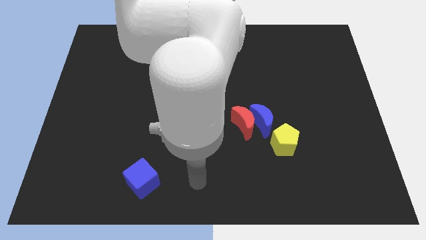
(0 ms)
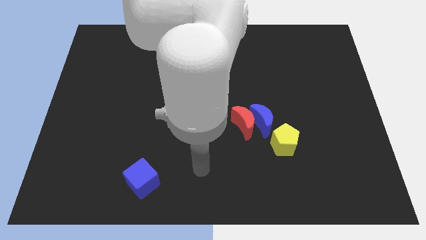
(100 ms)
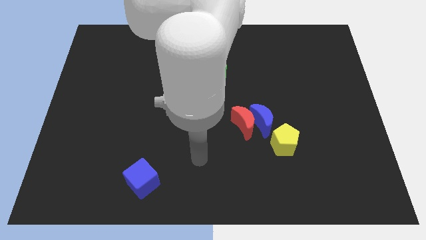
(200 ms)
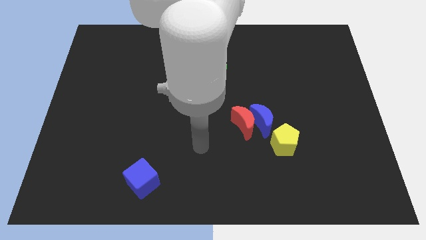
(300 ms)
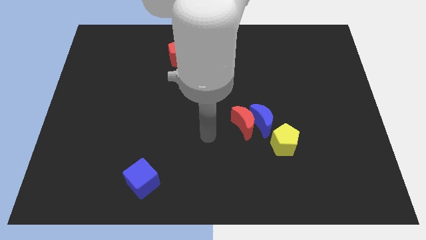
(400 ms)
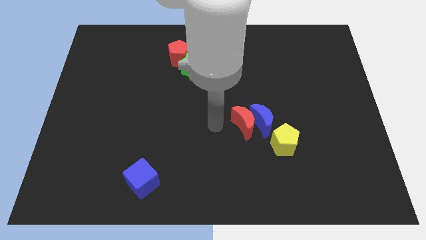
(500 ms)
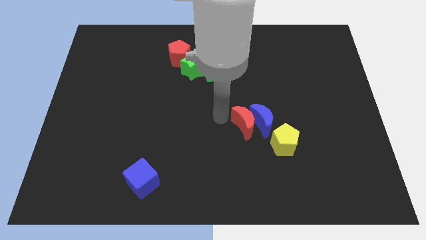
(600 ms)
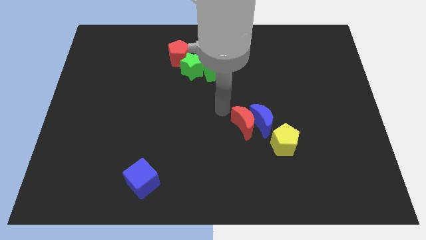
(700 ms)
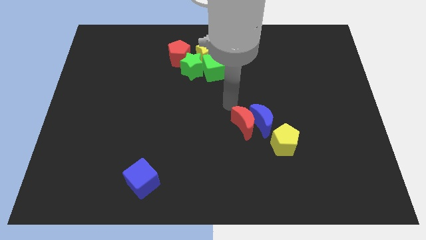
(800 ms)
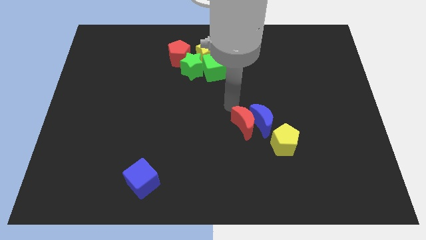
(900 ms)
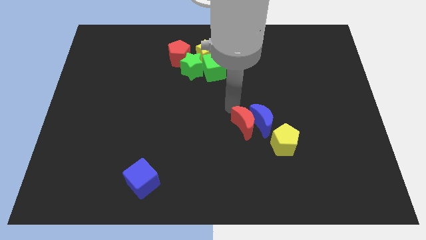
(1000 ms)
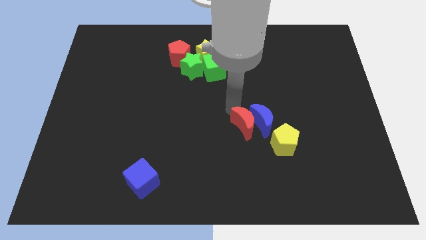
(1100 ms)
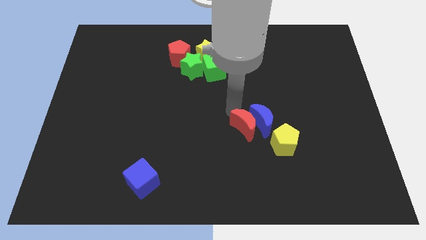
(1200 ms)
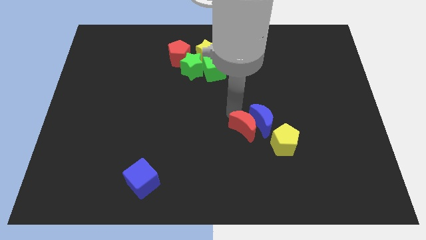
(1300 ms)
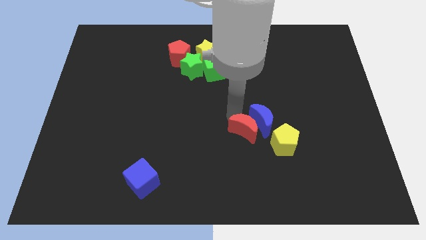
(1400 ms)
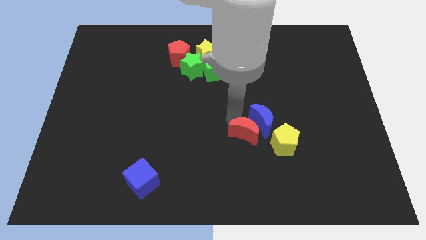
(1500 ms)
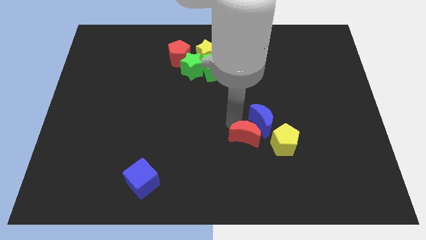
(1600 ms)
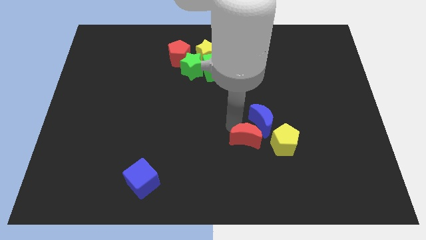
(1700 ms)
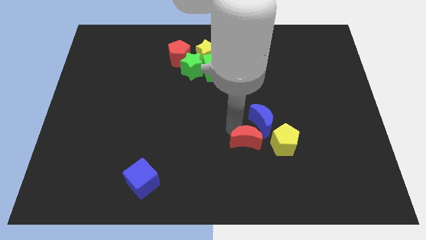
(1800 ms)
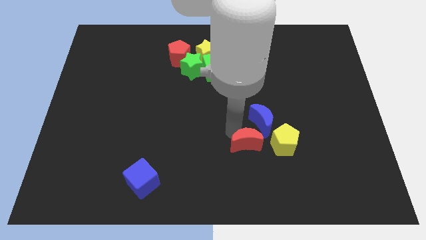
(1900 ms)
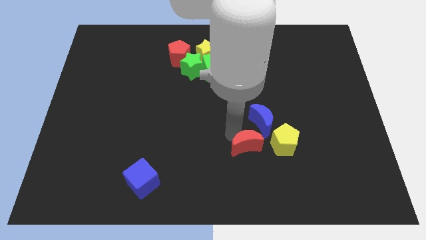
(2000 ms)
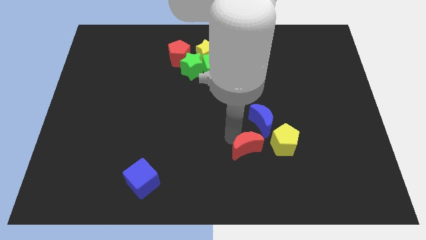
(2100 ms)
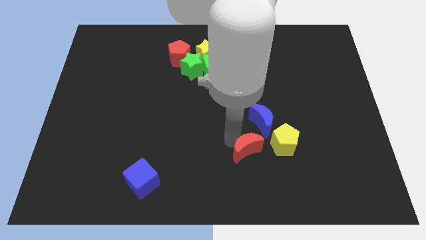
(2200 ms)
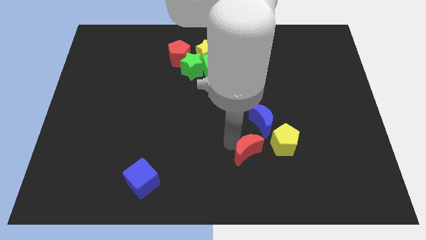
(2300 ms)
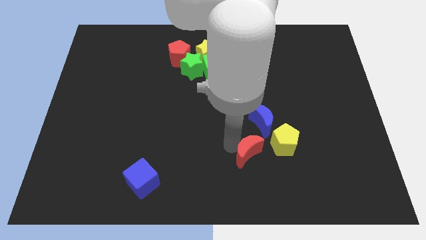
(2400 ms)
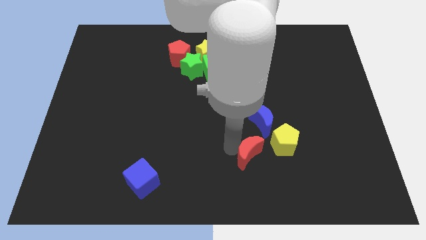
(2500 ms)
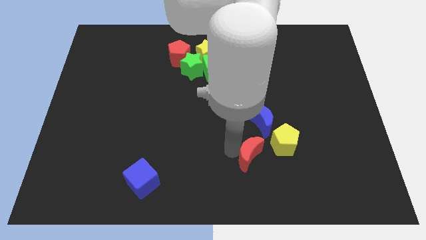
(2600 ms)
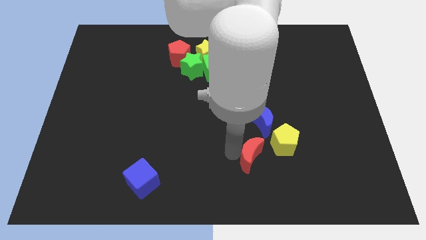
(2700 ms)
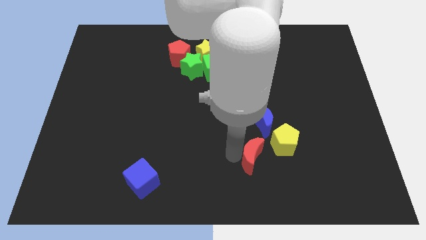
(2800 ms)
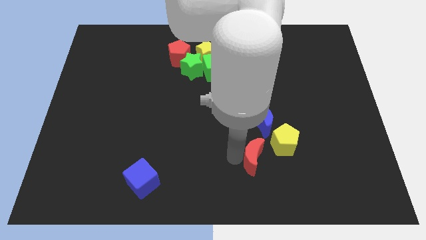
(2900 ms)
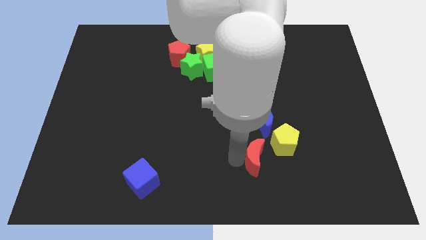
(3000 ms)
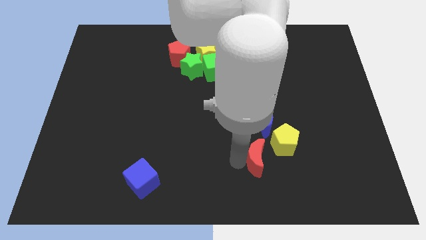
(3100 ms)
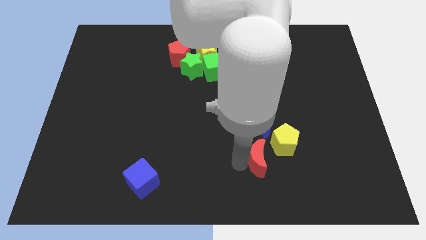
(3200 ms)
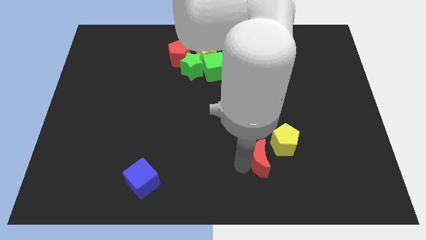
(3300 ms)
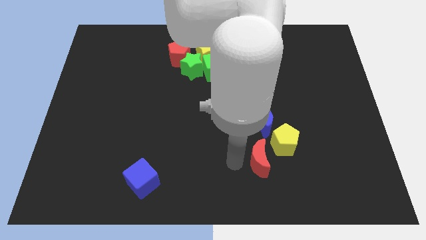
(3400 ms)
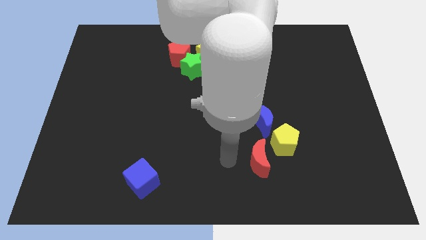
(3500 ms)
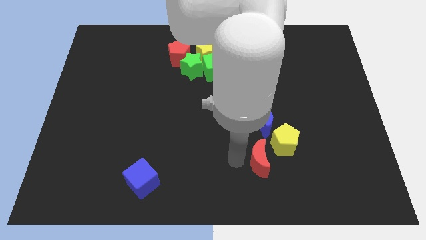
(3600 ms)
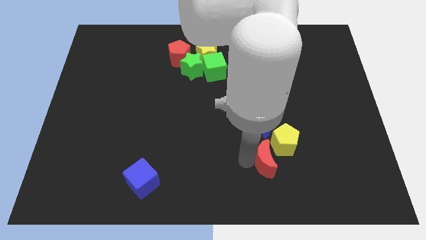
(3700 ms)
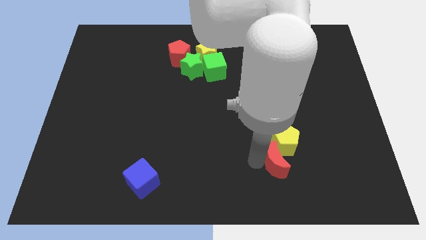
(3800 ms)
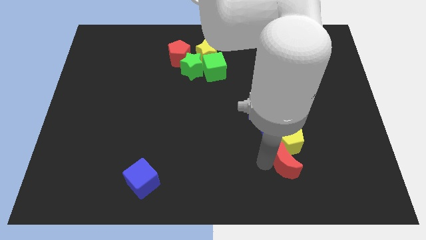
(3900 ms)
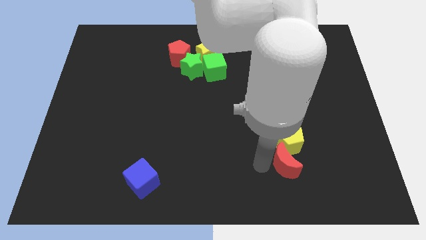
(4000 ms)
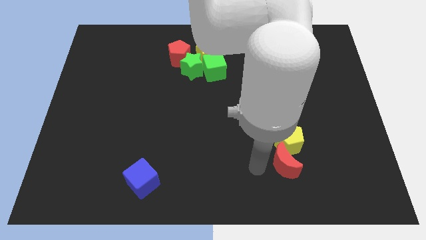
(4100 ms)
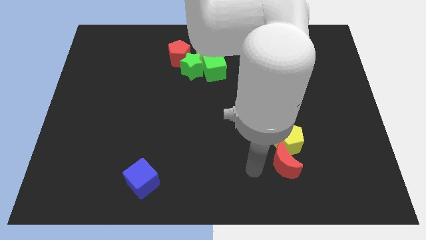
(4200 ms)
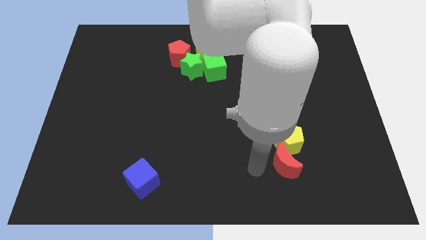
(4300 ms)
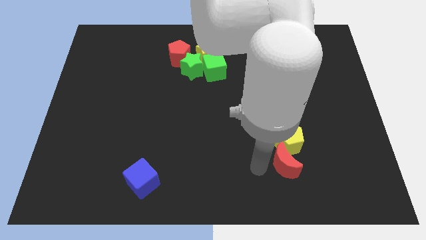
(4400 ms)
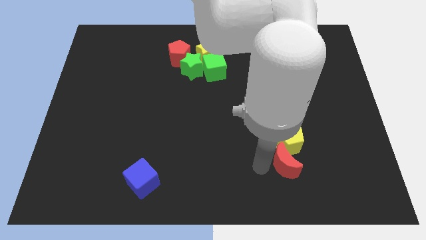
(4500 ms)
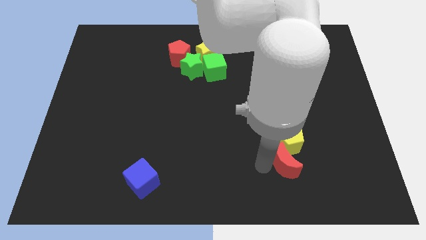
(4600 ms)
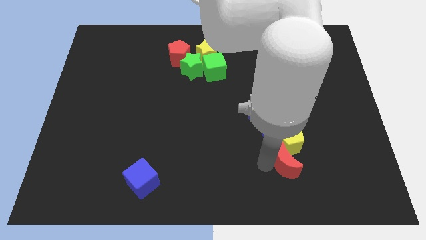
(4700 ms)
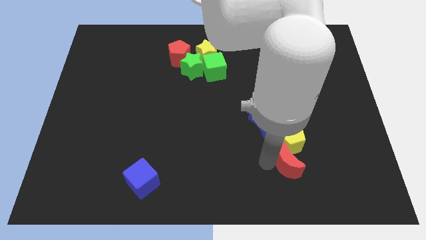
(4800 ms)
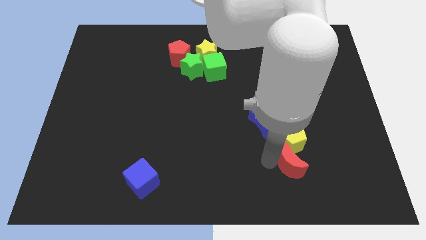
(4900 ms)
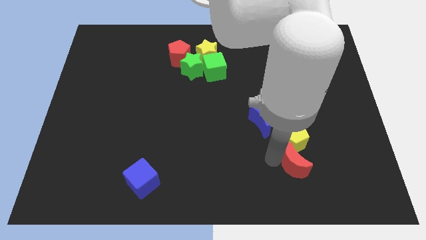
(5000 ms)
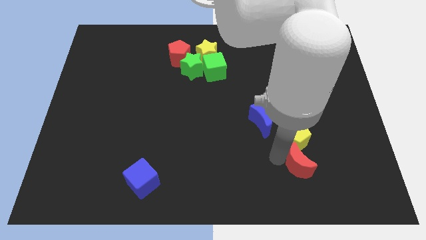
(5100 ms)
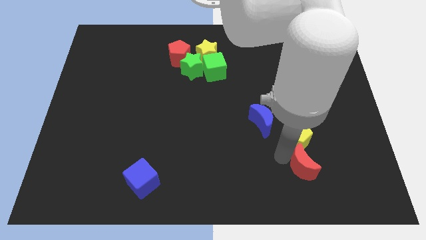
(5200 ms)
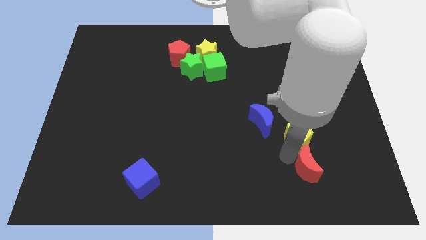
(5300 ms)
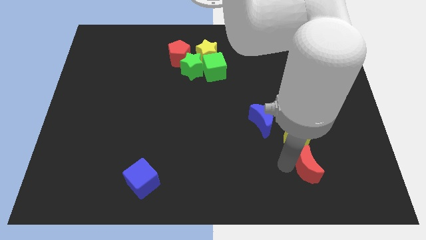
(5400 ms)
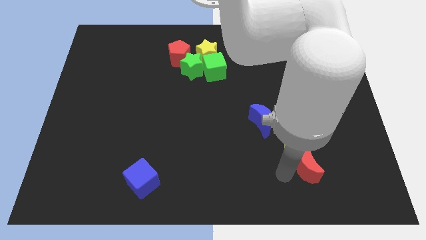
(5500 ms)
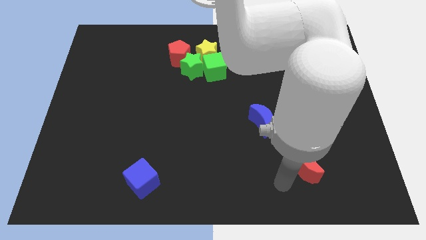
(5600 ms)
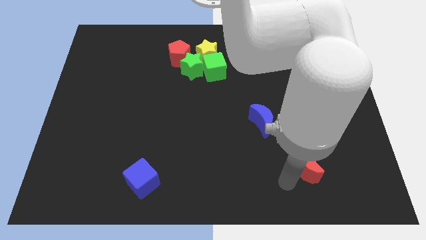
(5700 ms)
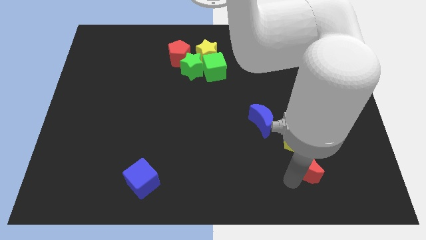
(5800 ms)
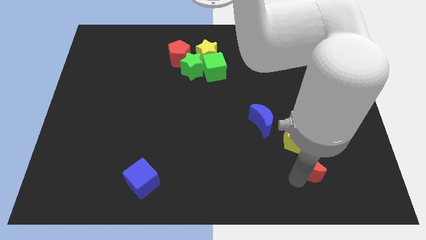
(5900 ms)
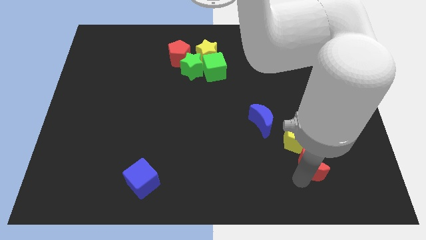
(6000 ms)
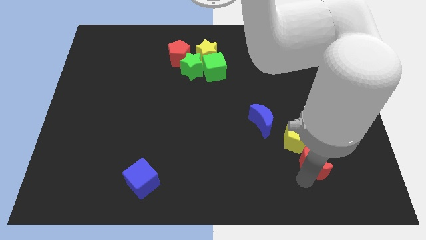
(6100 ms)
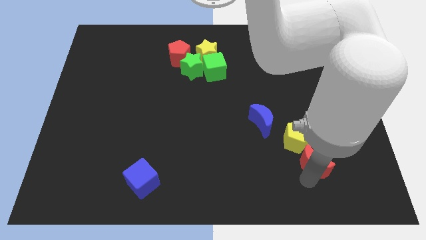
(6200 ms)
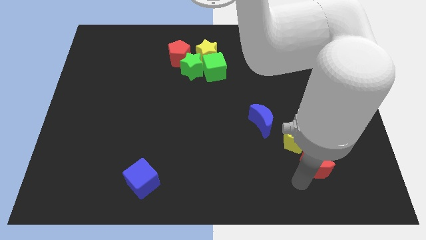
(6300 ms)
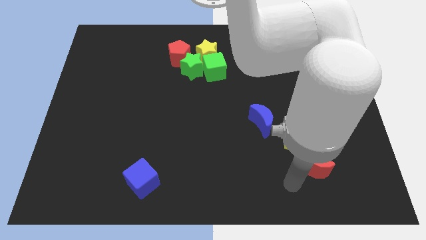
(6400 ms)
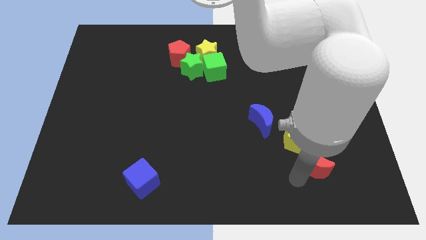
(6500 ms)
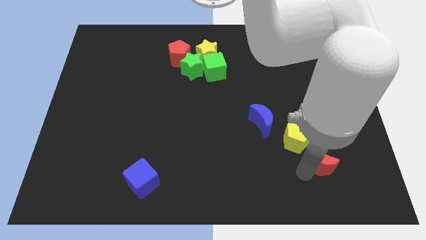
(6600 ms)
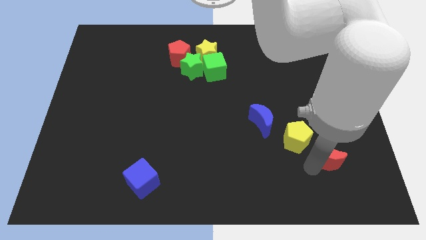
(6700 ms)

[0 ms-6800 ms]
put the red moon just right of the yellow pentagon

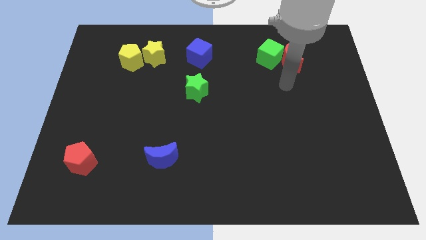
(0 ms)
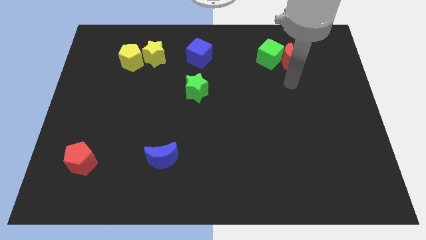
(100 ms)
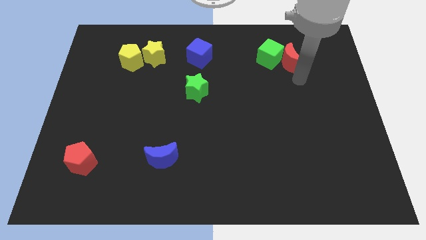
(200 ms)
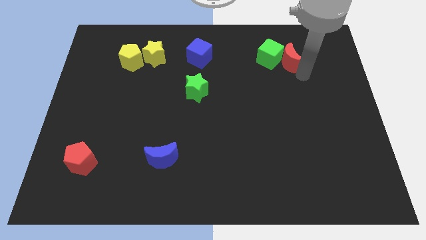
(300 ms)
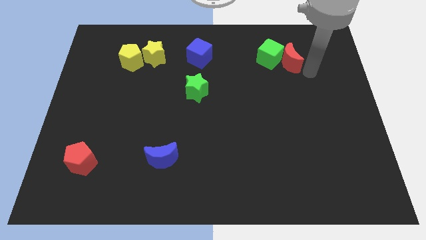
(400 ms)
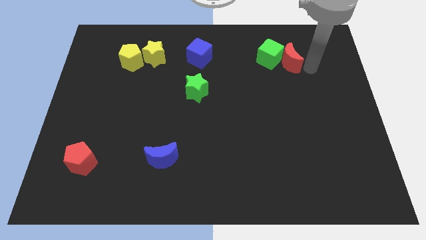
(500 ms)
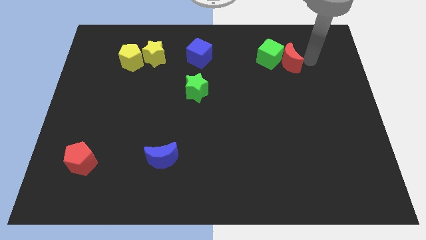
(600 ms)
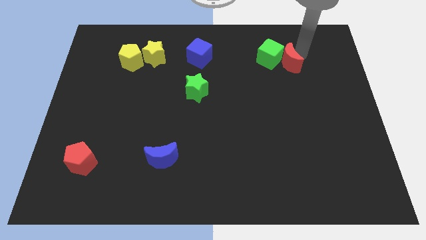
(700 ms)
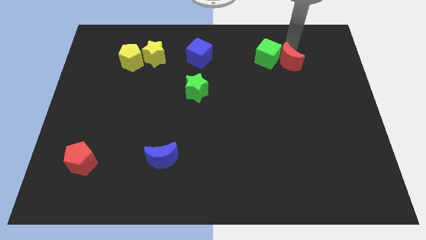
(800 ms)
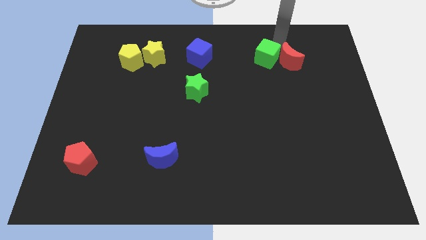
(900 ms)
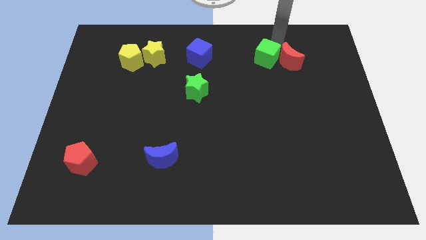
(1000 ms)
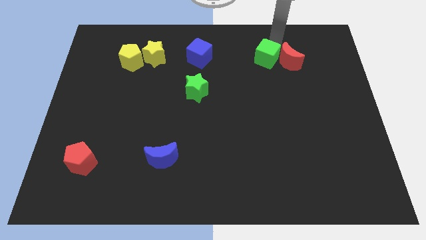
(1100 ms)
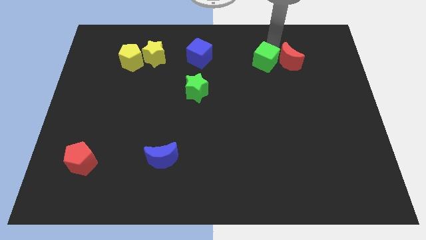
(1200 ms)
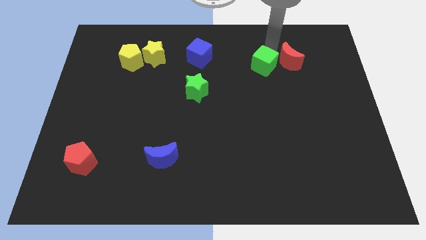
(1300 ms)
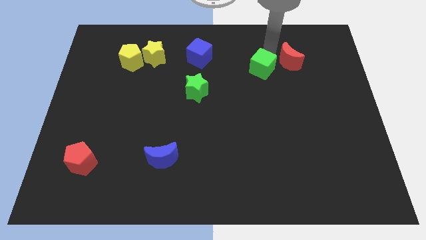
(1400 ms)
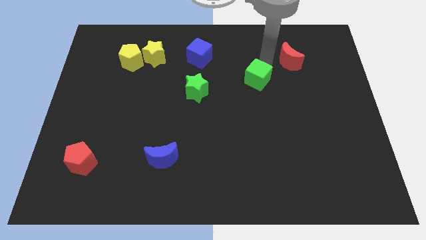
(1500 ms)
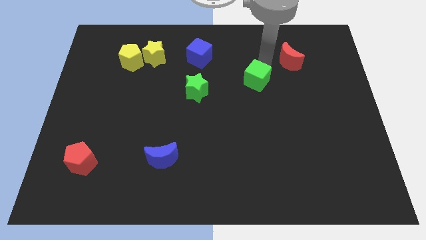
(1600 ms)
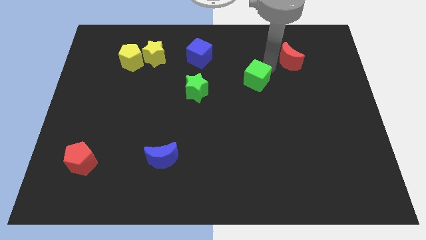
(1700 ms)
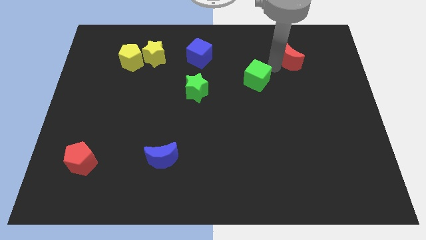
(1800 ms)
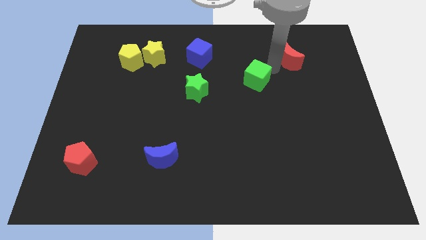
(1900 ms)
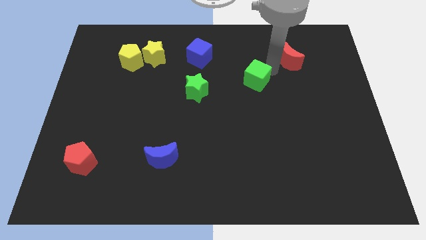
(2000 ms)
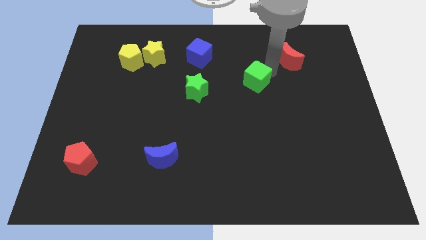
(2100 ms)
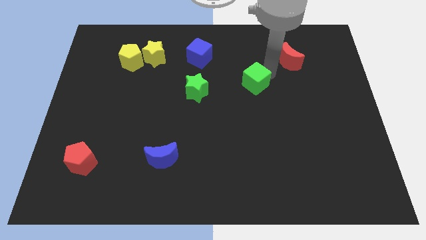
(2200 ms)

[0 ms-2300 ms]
move the green cube to the right side of the green star
